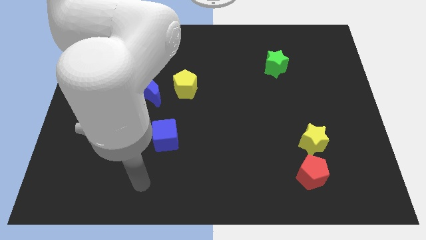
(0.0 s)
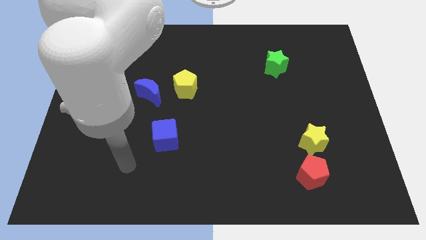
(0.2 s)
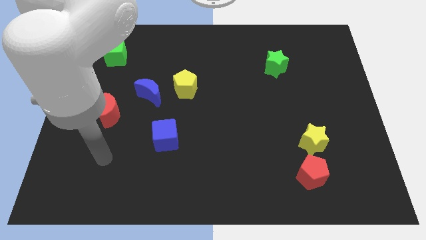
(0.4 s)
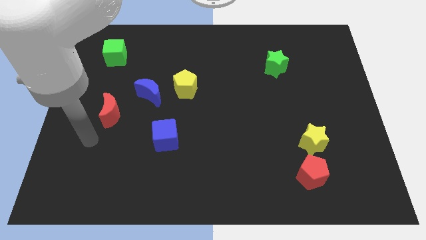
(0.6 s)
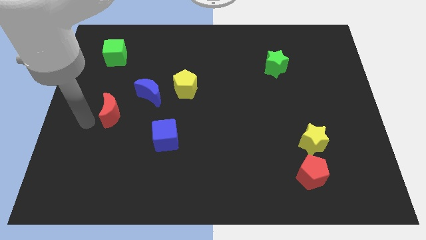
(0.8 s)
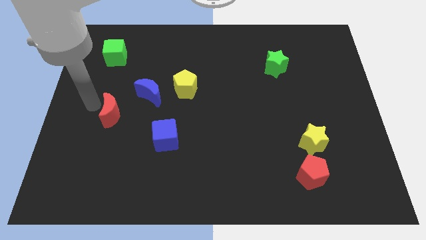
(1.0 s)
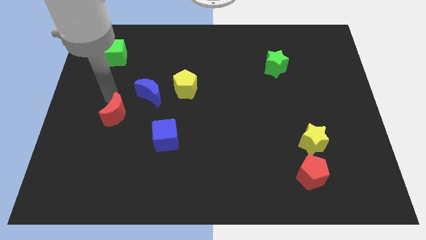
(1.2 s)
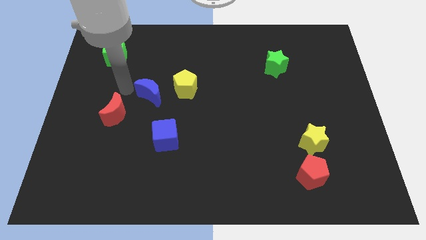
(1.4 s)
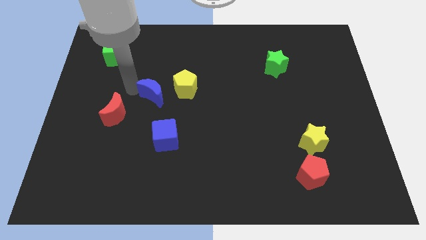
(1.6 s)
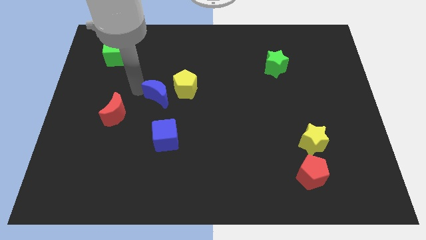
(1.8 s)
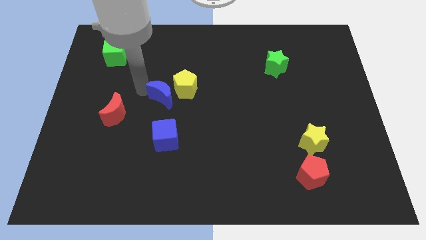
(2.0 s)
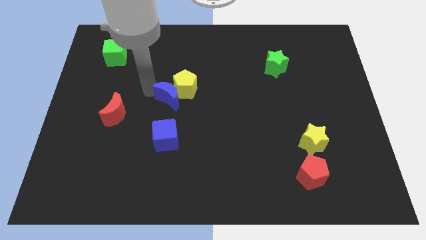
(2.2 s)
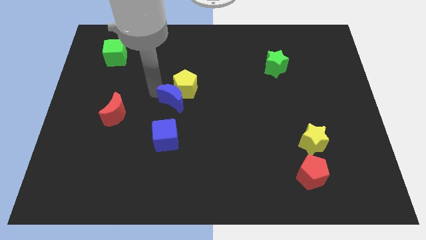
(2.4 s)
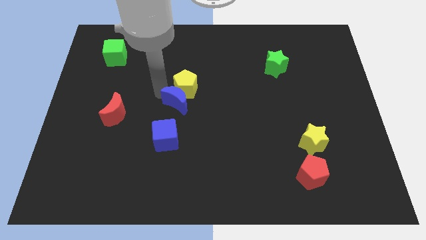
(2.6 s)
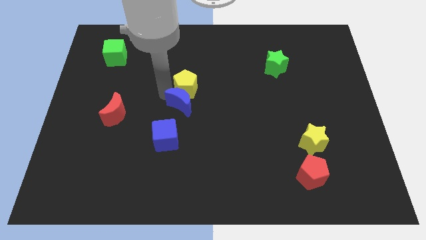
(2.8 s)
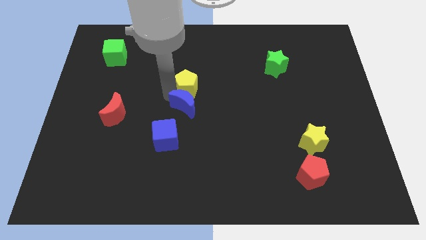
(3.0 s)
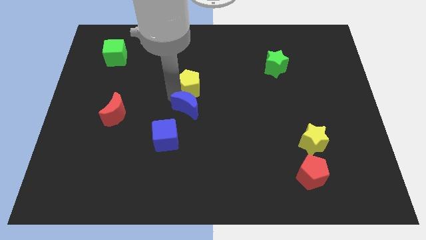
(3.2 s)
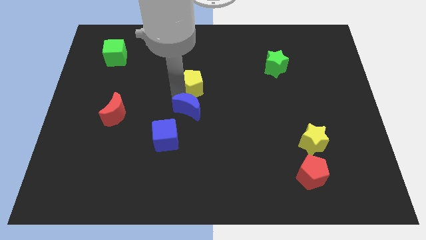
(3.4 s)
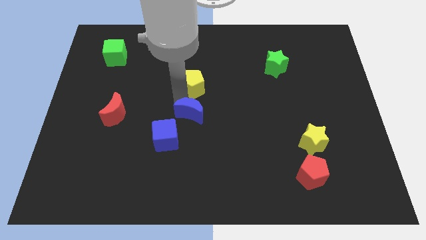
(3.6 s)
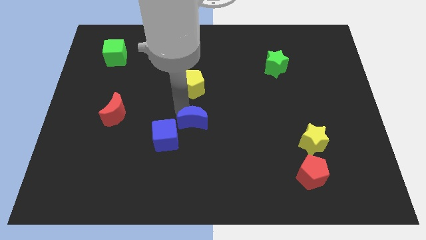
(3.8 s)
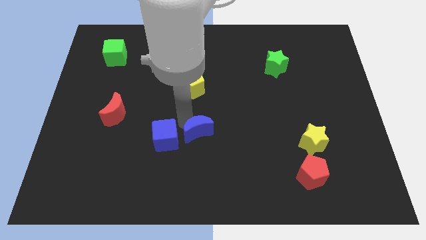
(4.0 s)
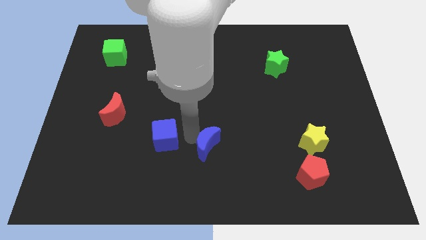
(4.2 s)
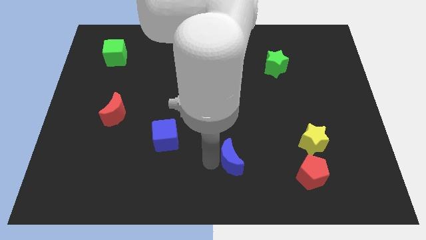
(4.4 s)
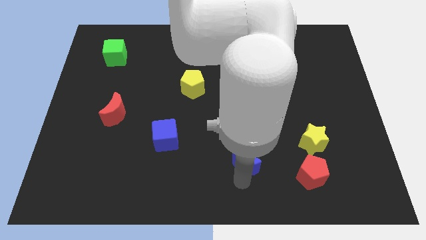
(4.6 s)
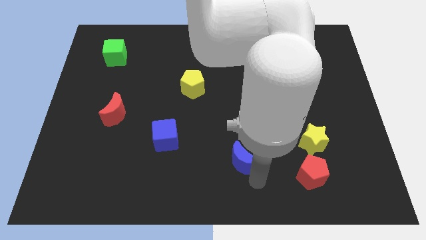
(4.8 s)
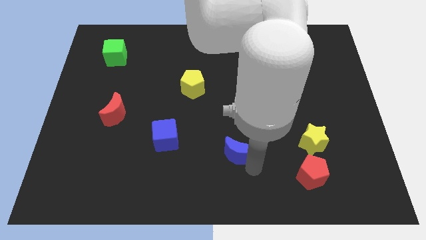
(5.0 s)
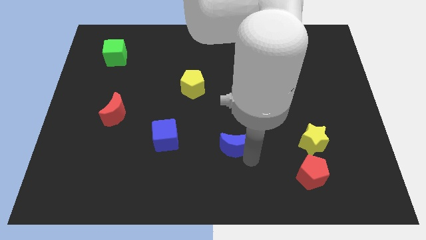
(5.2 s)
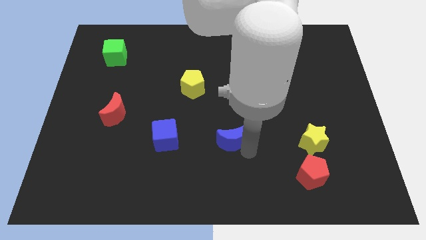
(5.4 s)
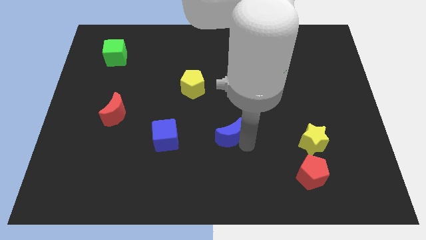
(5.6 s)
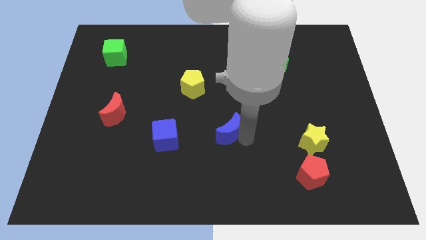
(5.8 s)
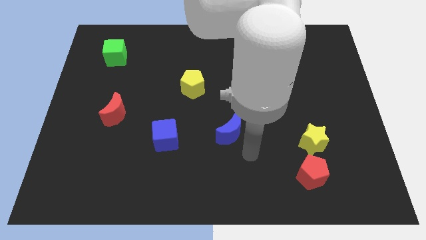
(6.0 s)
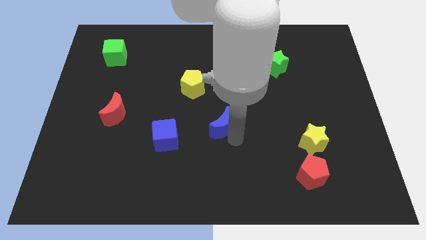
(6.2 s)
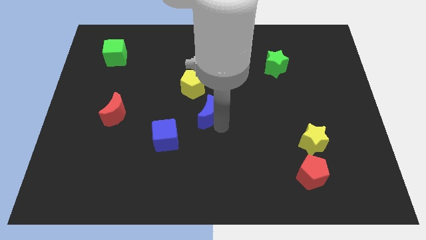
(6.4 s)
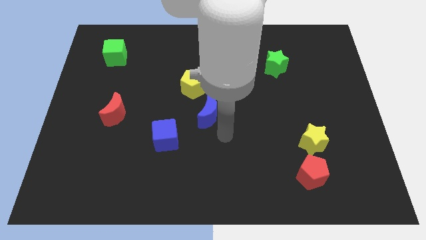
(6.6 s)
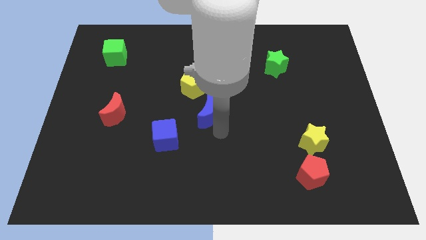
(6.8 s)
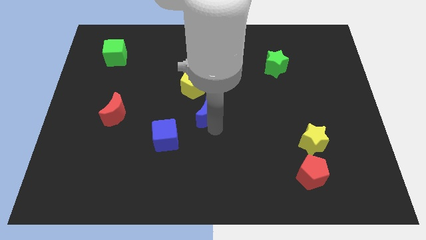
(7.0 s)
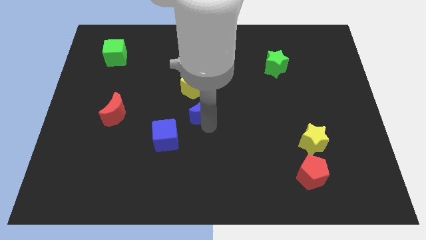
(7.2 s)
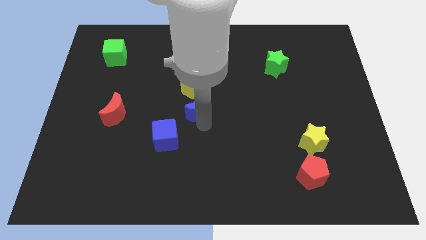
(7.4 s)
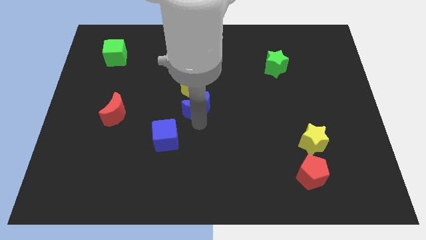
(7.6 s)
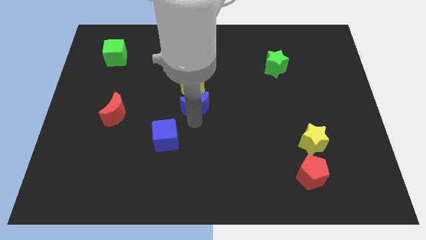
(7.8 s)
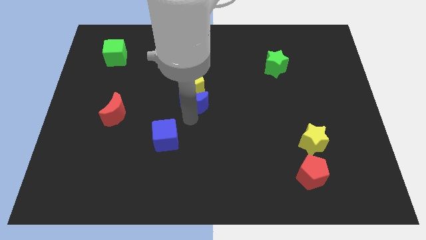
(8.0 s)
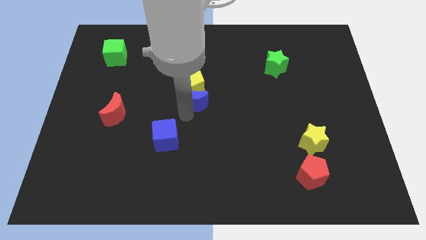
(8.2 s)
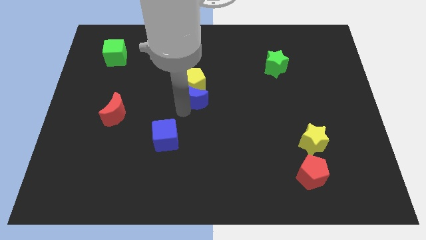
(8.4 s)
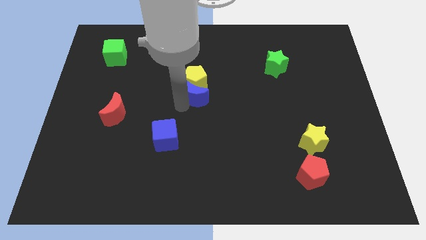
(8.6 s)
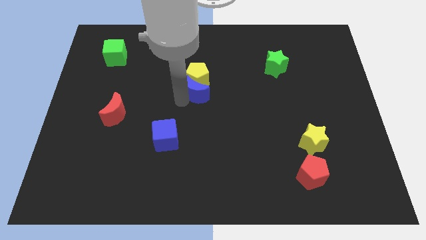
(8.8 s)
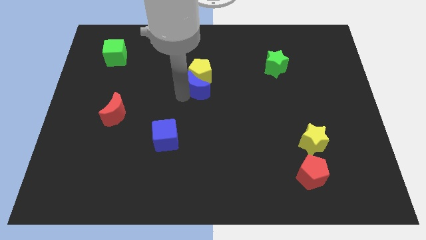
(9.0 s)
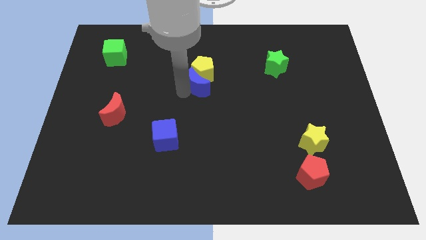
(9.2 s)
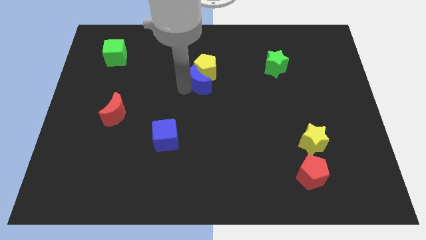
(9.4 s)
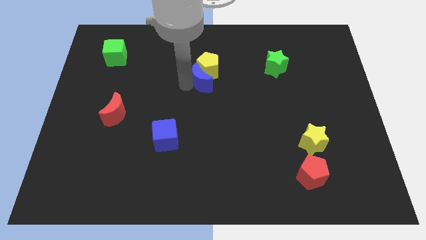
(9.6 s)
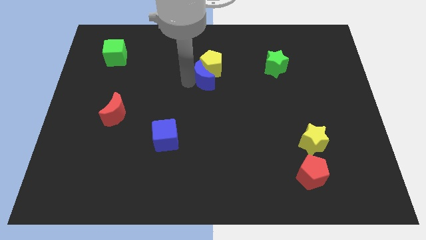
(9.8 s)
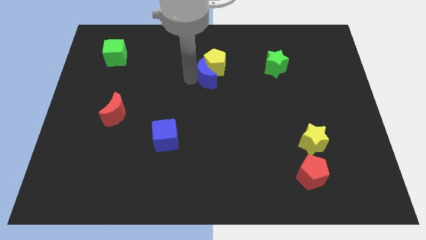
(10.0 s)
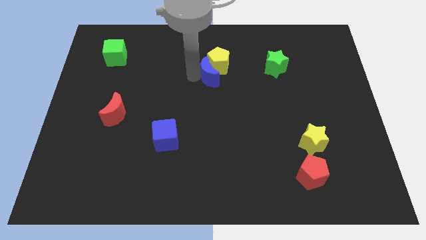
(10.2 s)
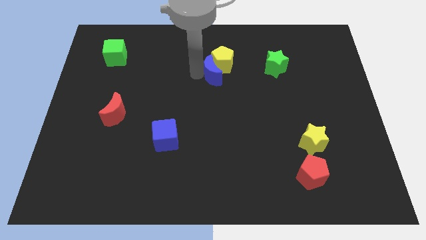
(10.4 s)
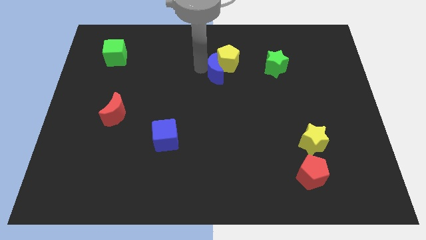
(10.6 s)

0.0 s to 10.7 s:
push the blue moon to the left side of the green star

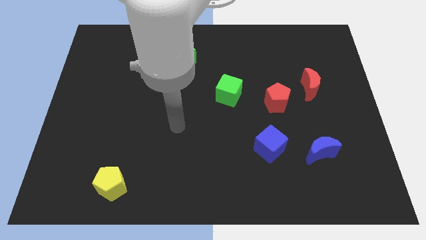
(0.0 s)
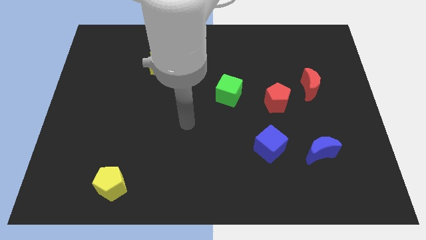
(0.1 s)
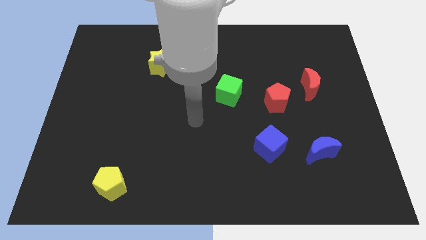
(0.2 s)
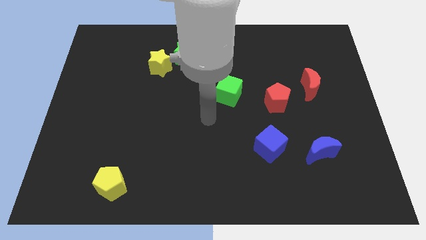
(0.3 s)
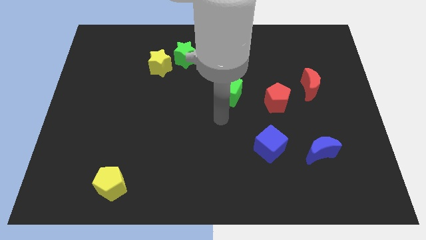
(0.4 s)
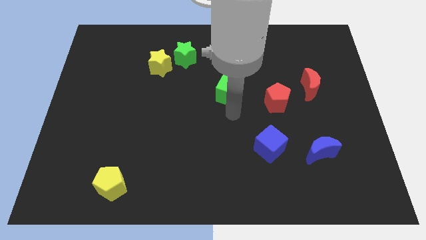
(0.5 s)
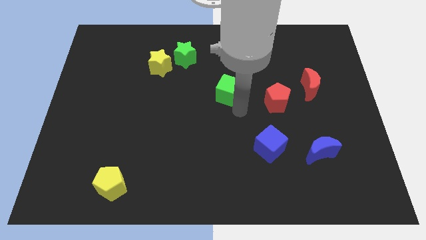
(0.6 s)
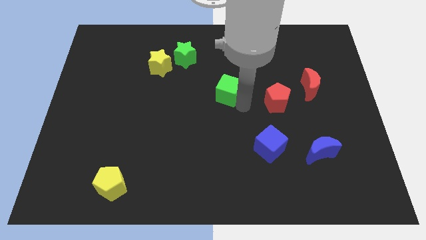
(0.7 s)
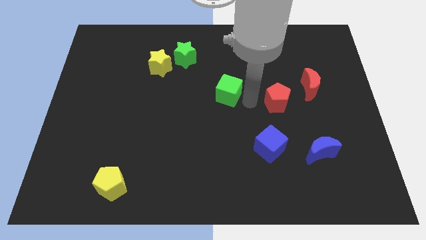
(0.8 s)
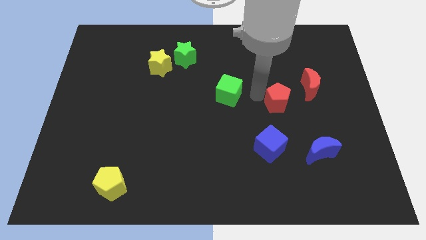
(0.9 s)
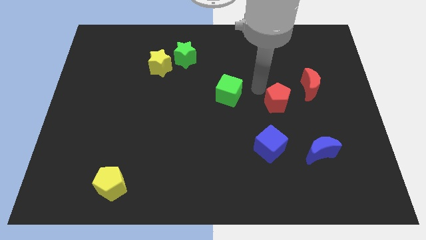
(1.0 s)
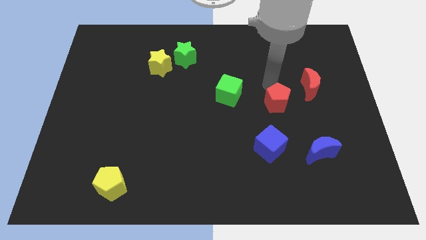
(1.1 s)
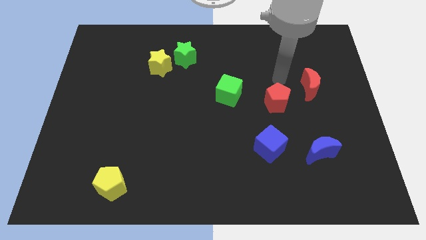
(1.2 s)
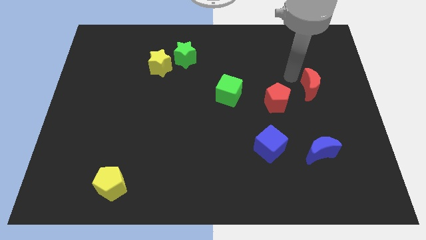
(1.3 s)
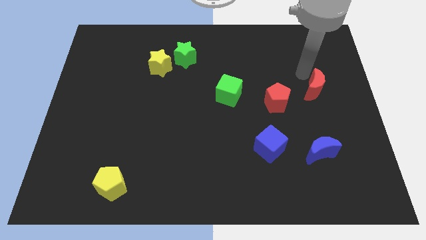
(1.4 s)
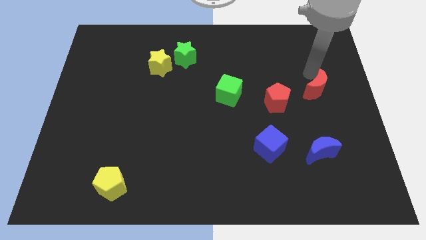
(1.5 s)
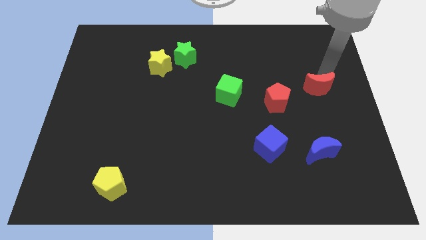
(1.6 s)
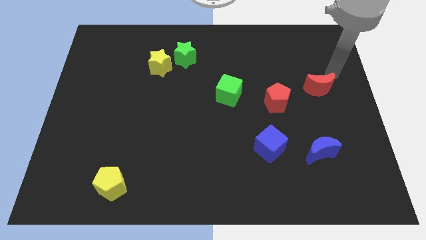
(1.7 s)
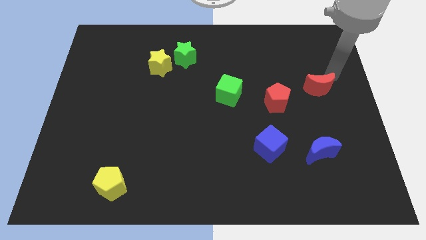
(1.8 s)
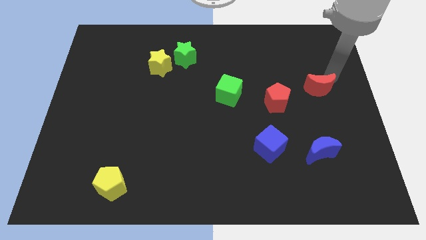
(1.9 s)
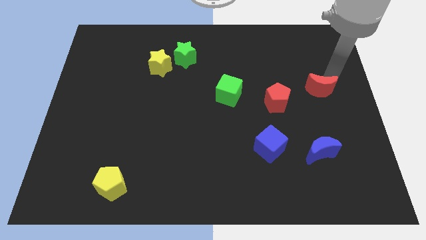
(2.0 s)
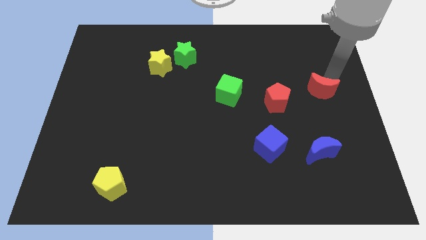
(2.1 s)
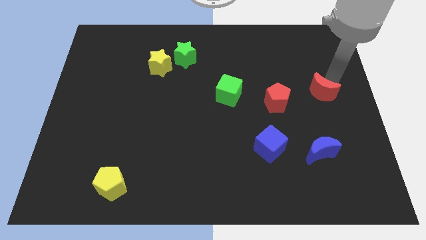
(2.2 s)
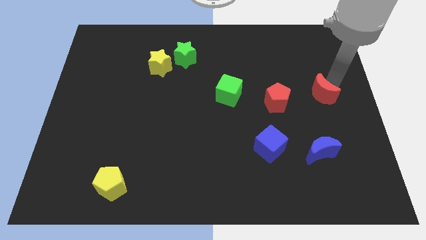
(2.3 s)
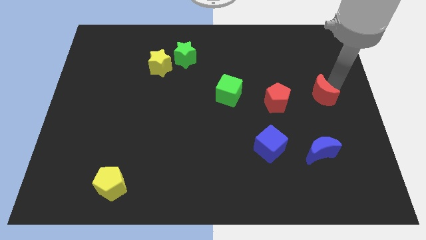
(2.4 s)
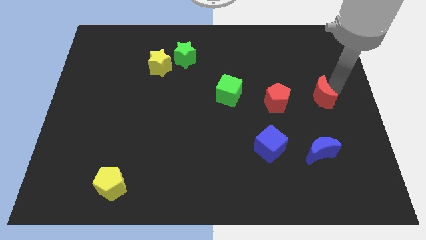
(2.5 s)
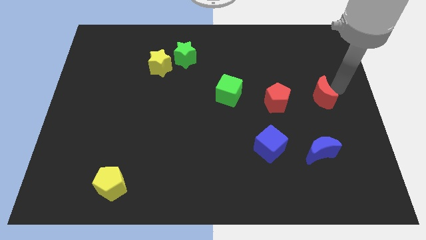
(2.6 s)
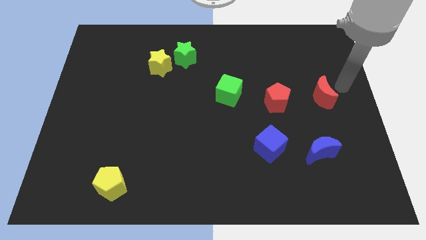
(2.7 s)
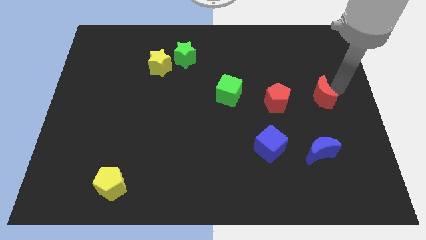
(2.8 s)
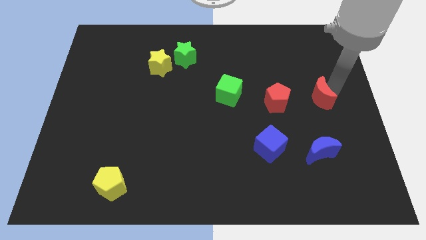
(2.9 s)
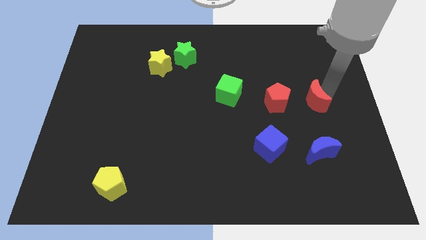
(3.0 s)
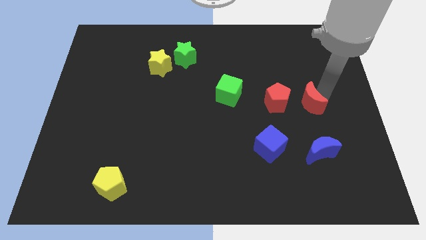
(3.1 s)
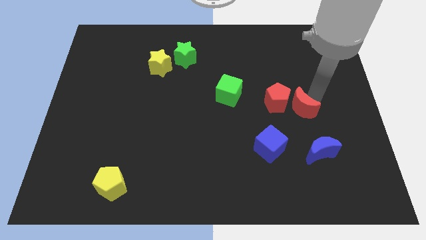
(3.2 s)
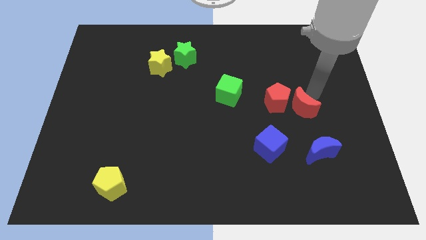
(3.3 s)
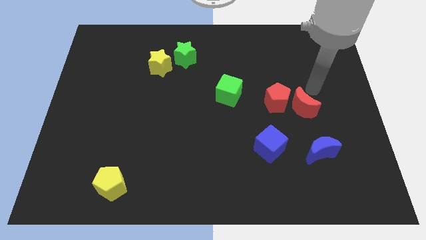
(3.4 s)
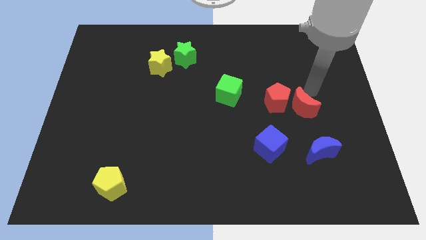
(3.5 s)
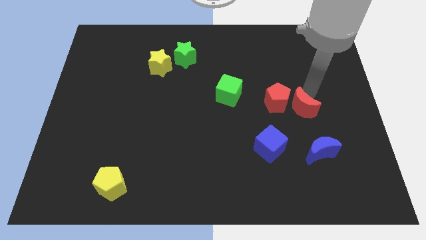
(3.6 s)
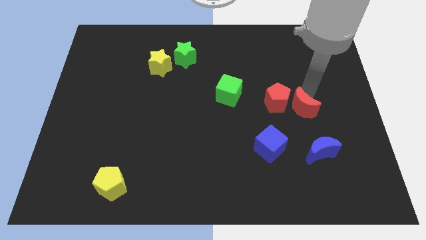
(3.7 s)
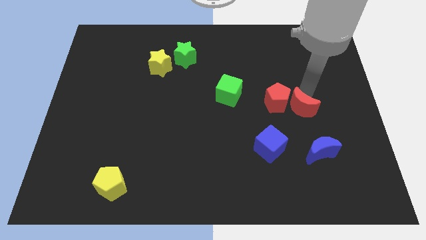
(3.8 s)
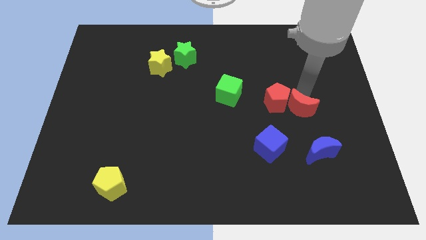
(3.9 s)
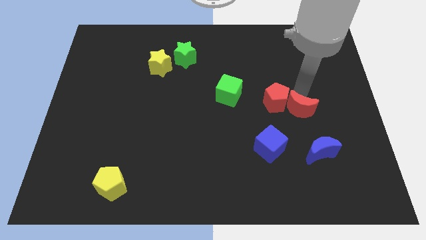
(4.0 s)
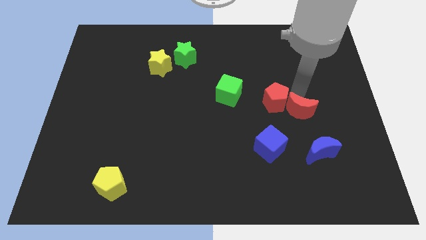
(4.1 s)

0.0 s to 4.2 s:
slide the red moon diagonally up and to the right of the blue cube
